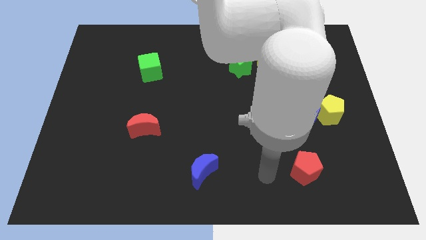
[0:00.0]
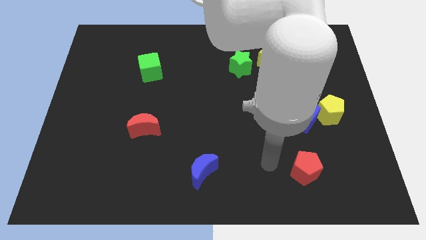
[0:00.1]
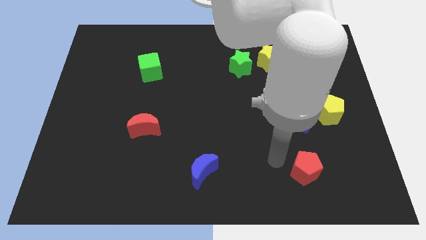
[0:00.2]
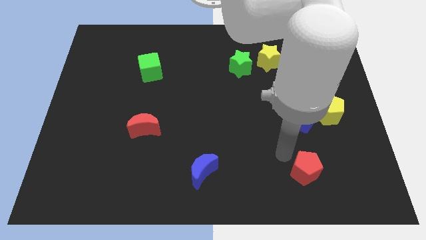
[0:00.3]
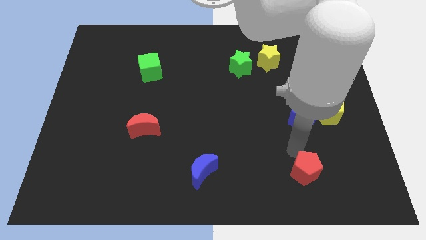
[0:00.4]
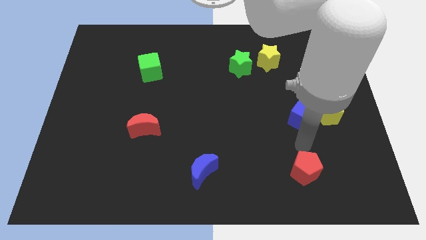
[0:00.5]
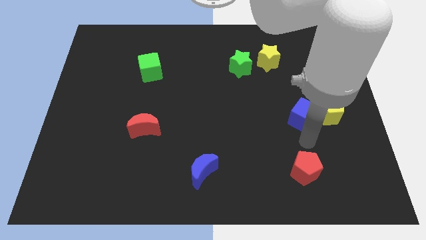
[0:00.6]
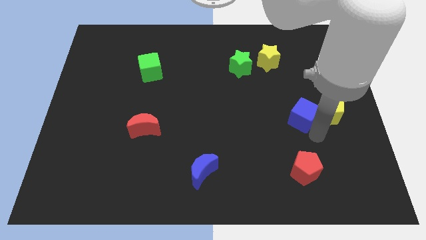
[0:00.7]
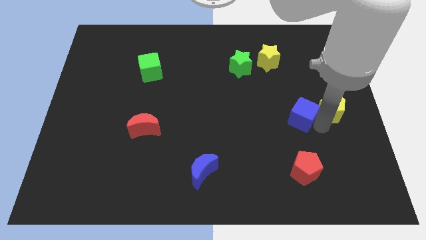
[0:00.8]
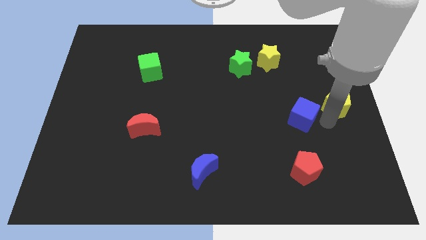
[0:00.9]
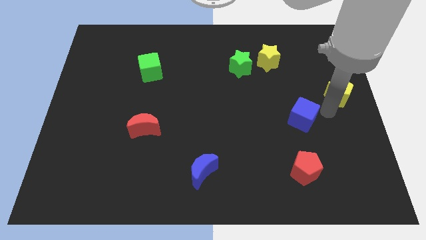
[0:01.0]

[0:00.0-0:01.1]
move the blue cube away from the yellow pentagon

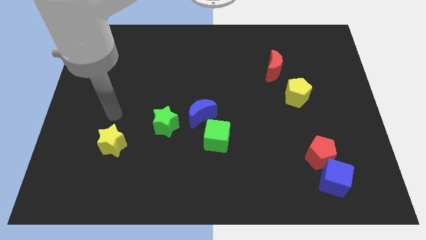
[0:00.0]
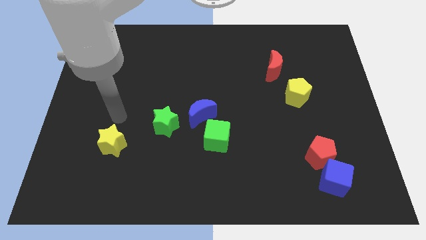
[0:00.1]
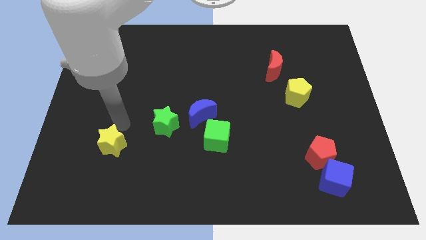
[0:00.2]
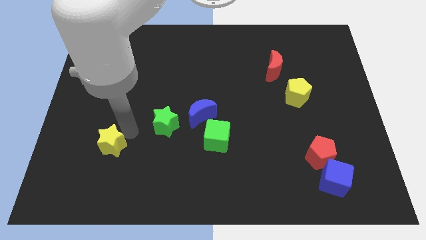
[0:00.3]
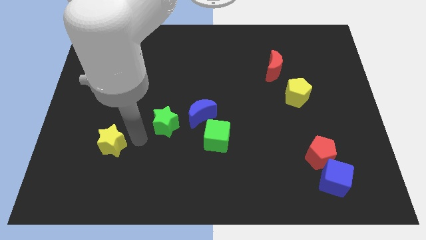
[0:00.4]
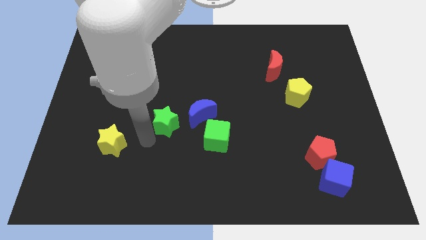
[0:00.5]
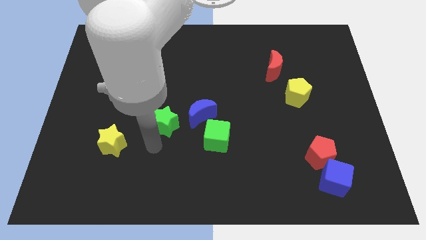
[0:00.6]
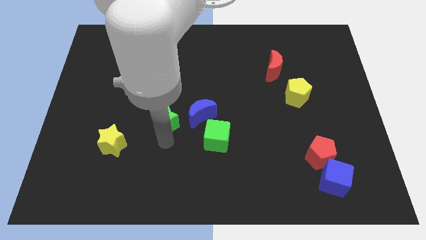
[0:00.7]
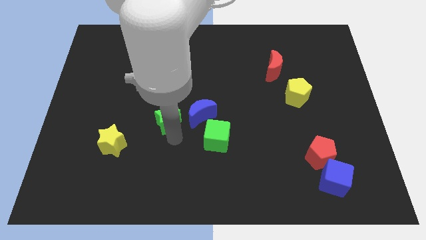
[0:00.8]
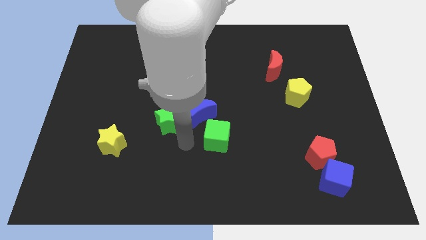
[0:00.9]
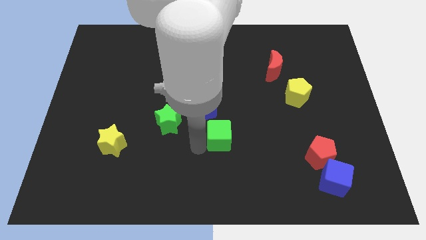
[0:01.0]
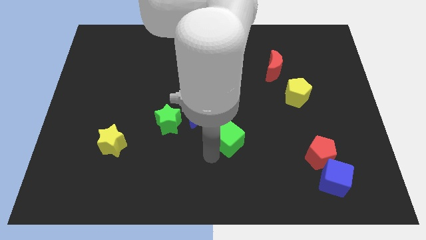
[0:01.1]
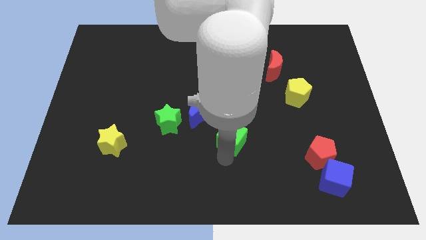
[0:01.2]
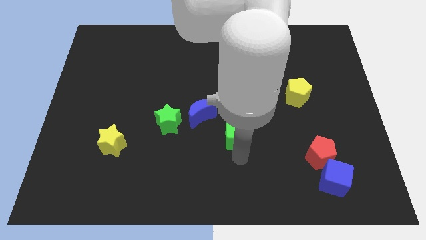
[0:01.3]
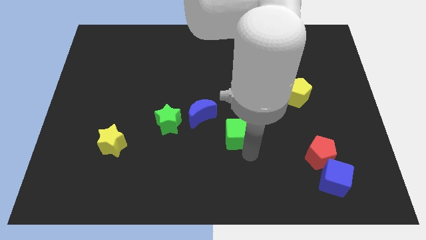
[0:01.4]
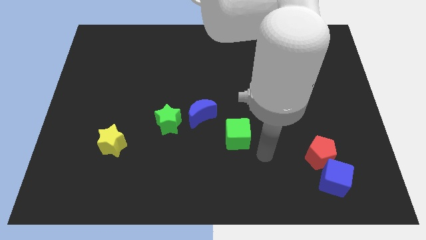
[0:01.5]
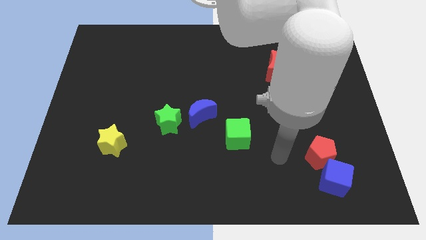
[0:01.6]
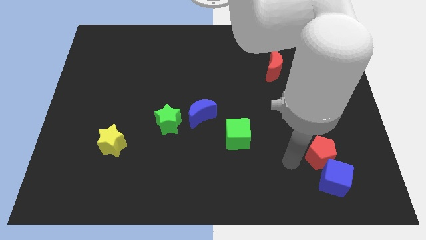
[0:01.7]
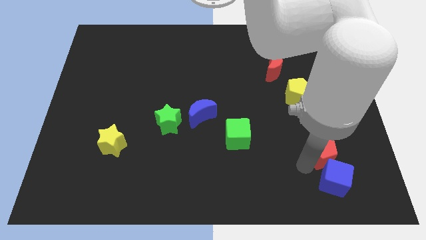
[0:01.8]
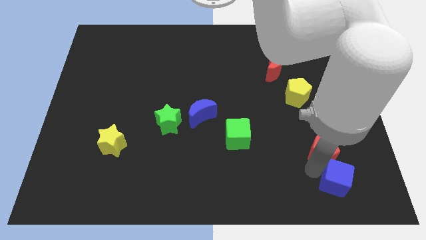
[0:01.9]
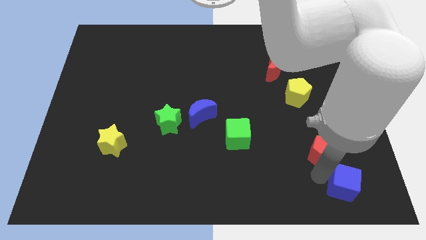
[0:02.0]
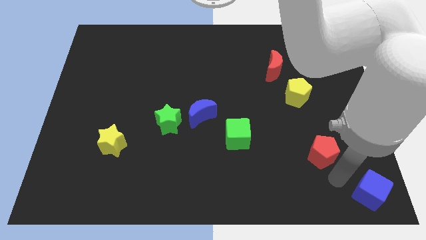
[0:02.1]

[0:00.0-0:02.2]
move the red pentagon away from the blue cube

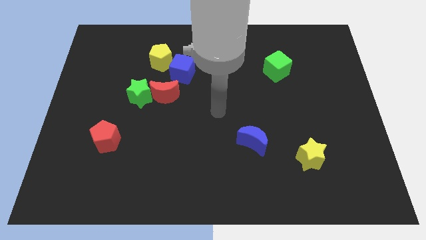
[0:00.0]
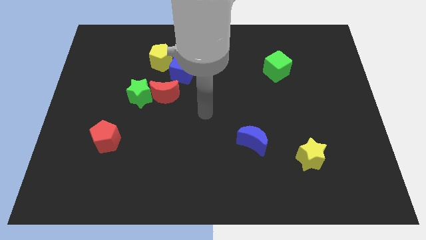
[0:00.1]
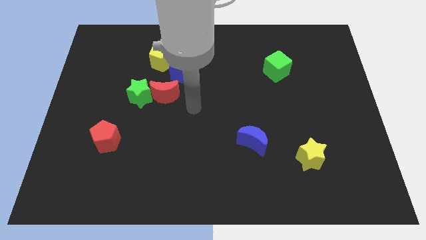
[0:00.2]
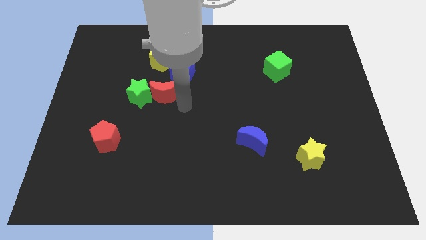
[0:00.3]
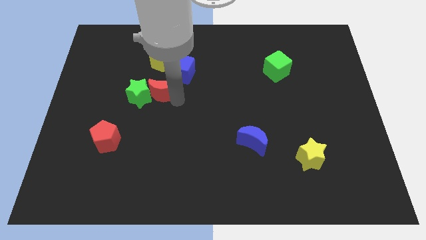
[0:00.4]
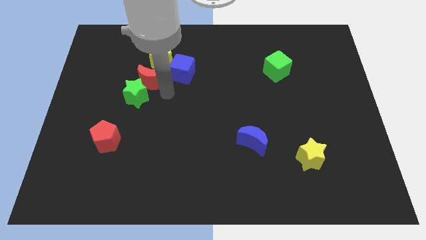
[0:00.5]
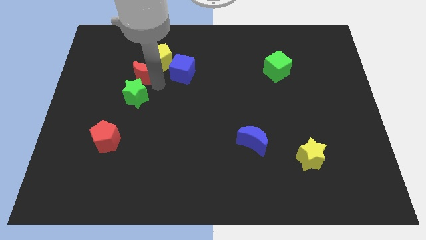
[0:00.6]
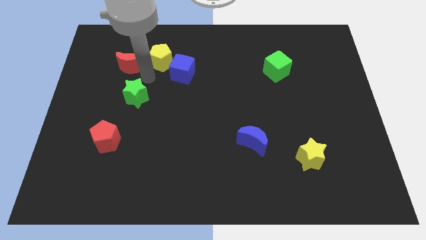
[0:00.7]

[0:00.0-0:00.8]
separate the green star from the red moon

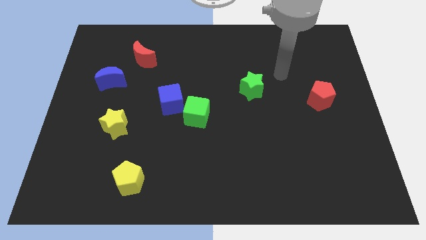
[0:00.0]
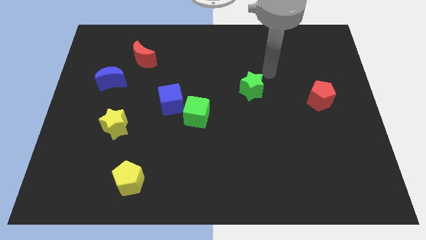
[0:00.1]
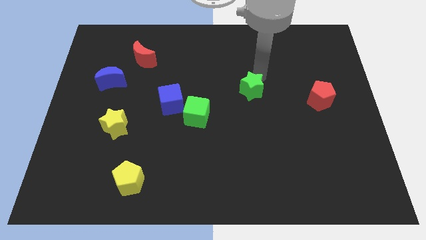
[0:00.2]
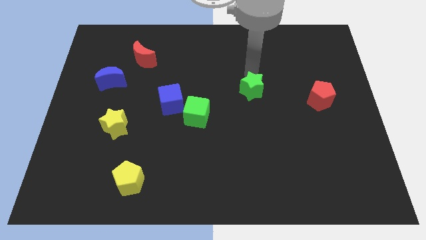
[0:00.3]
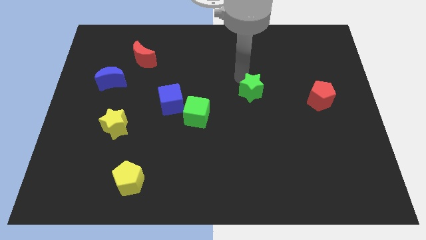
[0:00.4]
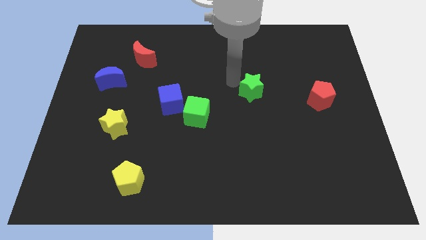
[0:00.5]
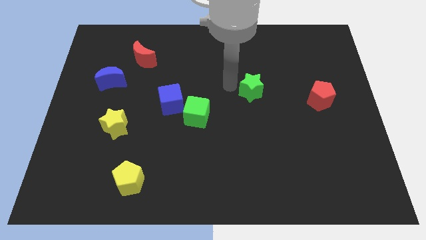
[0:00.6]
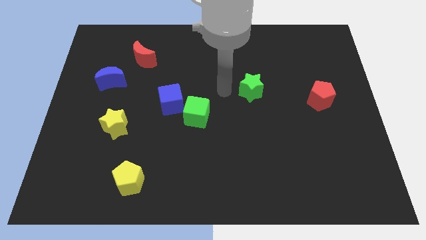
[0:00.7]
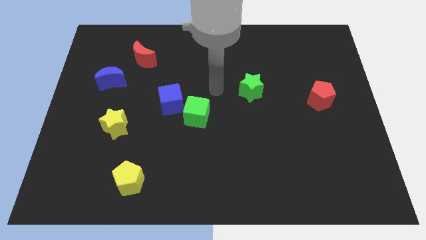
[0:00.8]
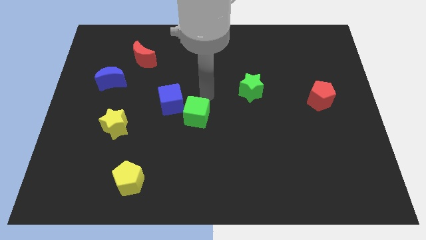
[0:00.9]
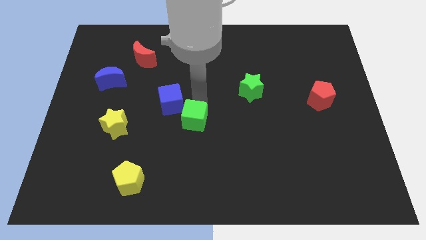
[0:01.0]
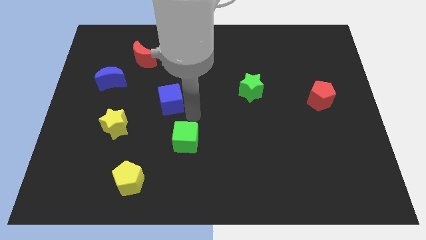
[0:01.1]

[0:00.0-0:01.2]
separate the blue cube from the green cube

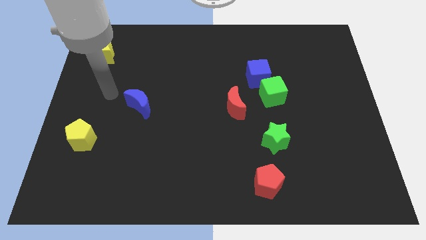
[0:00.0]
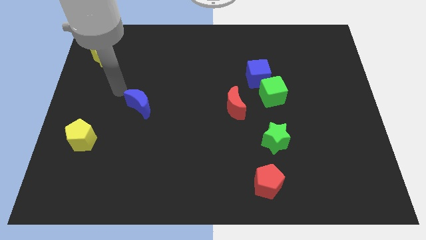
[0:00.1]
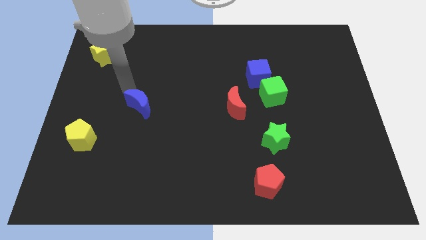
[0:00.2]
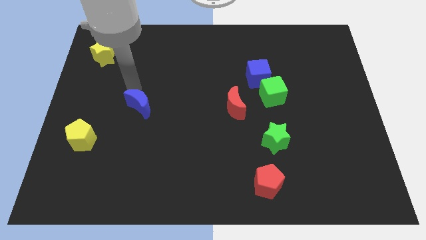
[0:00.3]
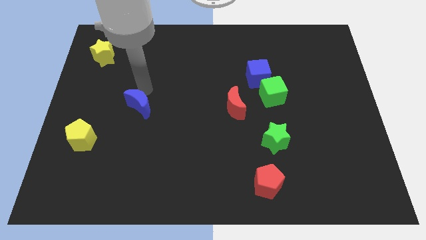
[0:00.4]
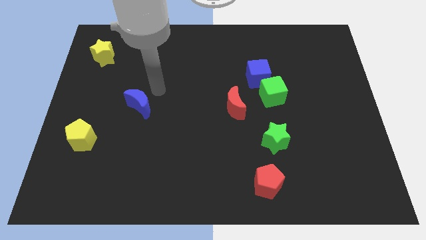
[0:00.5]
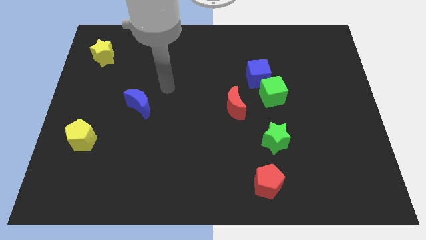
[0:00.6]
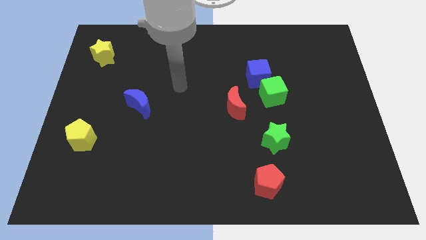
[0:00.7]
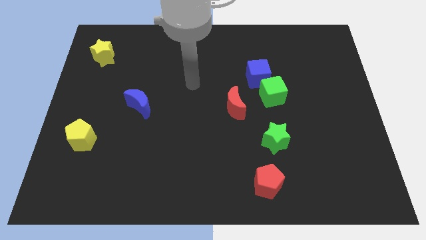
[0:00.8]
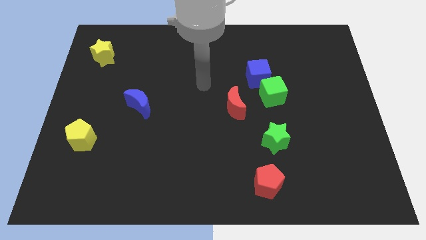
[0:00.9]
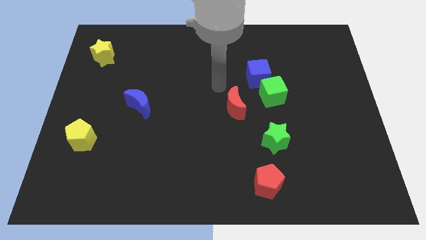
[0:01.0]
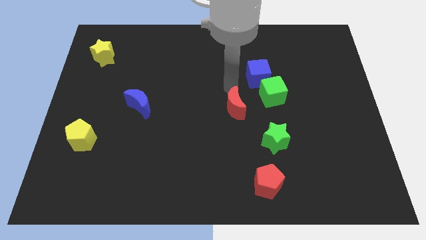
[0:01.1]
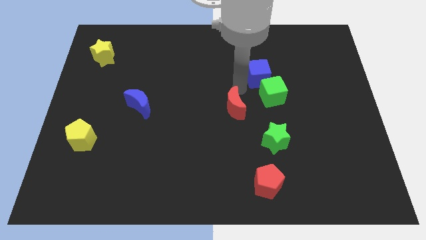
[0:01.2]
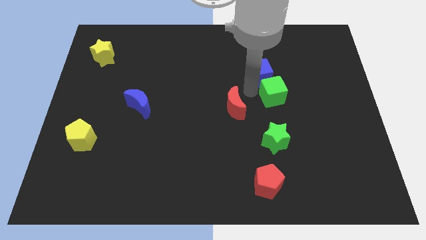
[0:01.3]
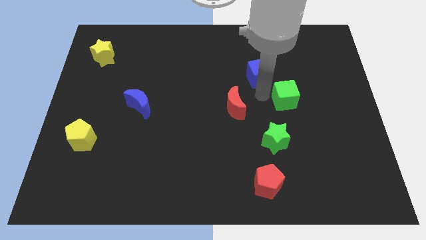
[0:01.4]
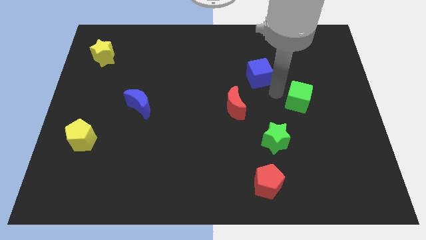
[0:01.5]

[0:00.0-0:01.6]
pull the blue cube apart from the green cube

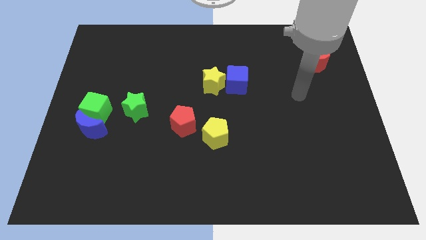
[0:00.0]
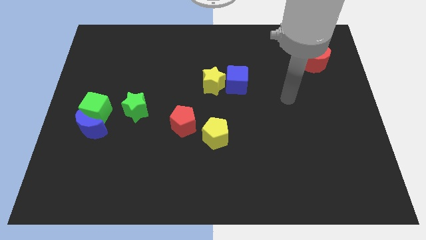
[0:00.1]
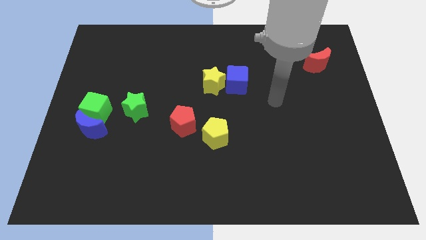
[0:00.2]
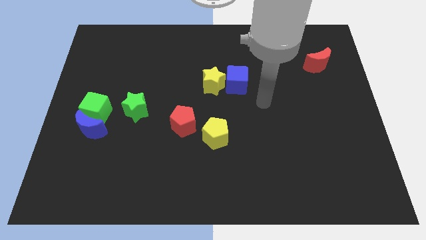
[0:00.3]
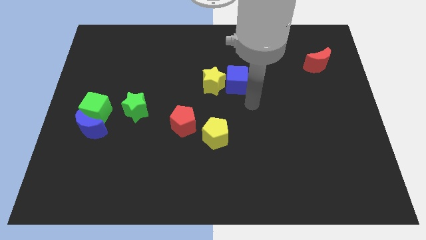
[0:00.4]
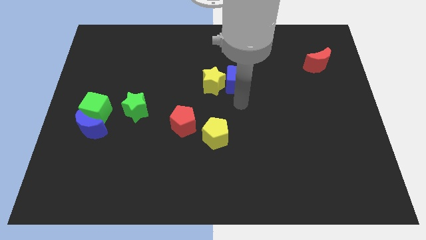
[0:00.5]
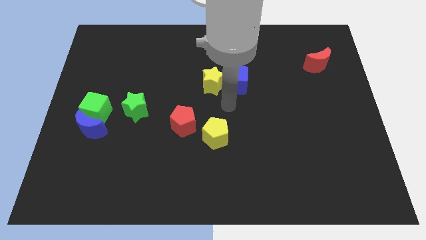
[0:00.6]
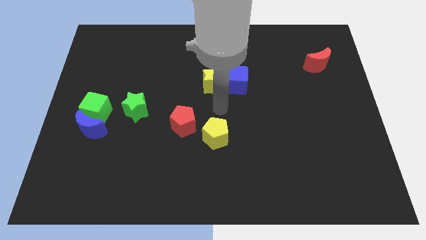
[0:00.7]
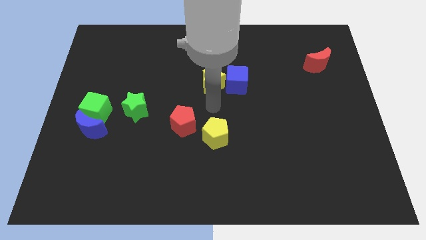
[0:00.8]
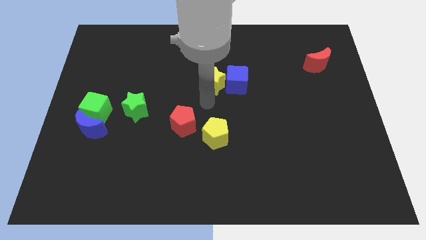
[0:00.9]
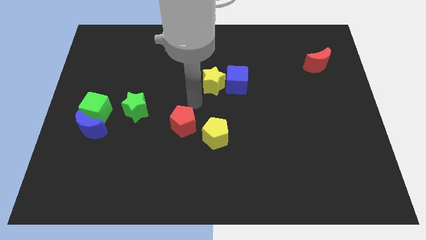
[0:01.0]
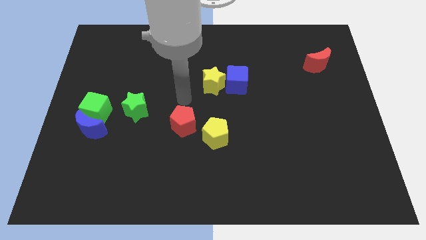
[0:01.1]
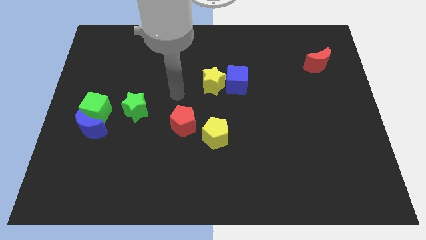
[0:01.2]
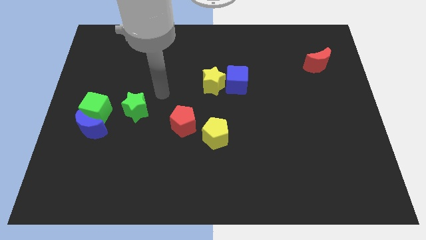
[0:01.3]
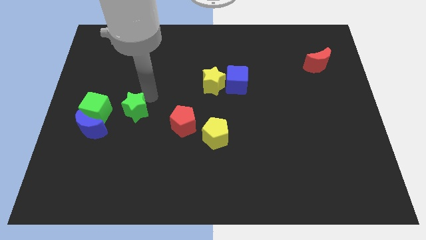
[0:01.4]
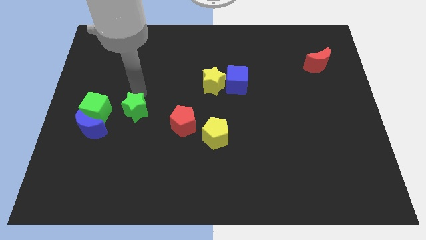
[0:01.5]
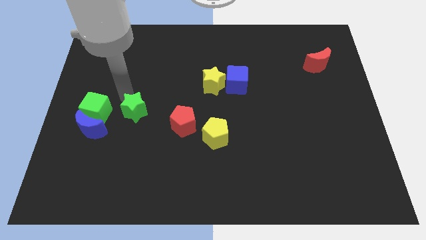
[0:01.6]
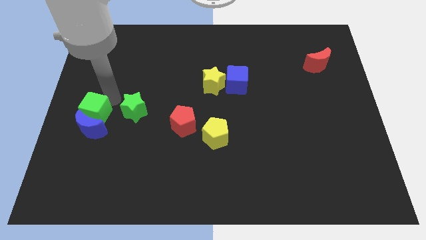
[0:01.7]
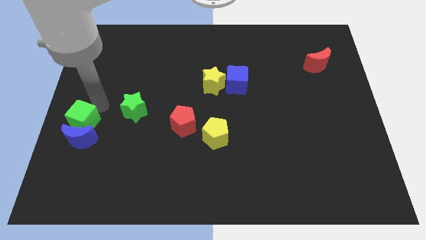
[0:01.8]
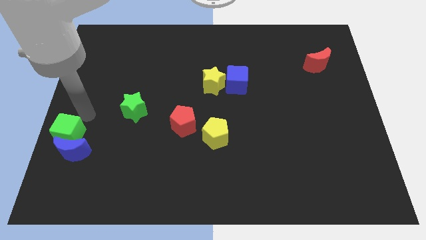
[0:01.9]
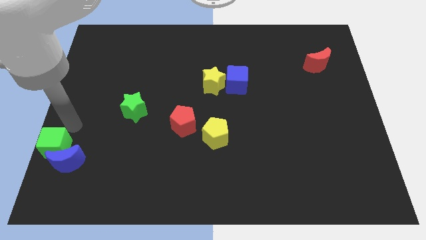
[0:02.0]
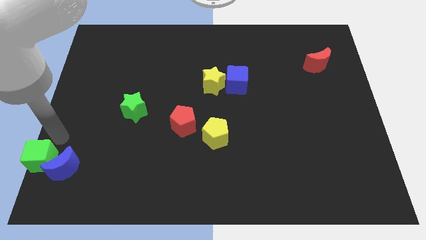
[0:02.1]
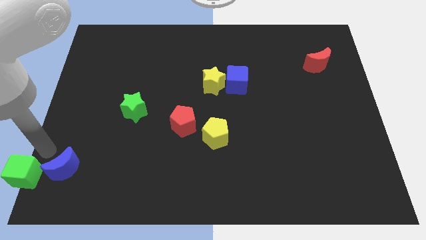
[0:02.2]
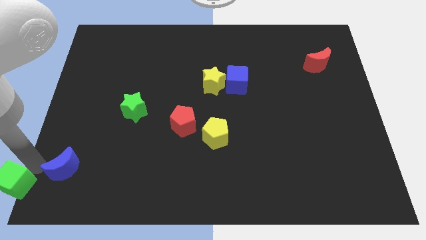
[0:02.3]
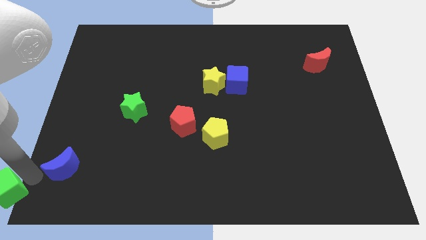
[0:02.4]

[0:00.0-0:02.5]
pull the blue moon apart from the green cube
